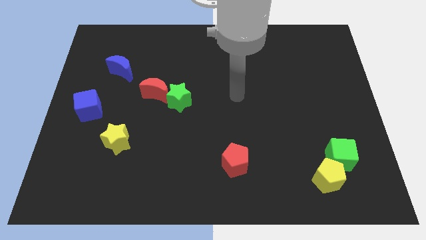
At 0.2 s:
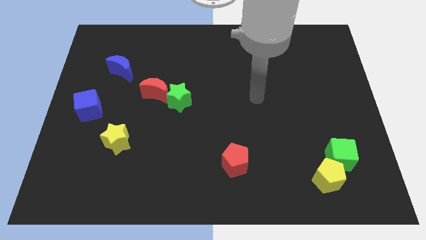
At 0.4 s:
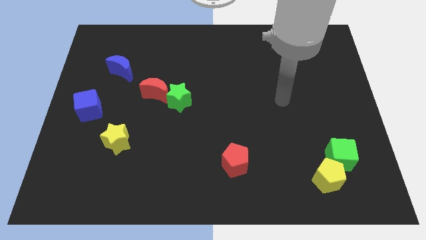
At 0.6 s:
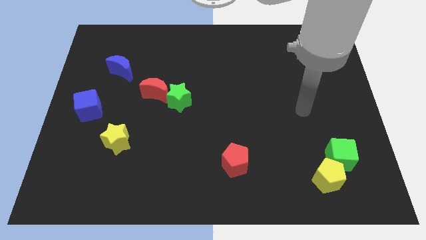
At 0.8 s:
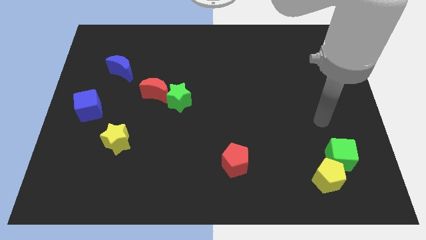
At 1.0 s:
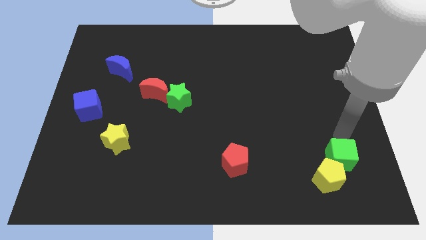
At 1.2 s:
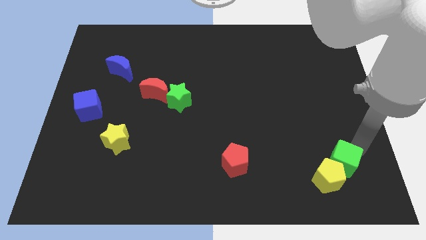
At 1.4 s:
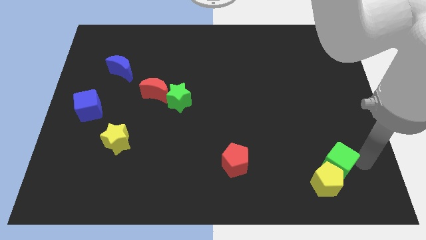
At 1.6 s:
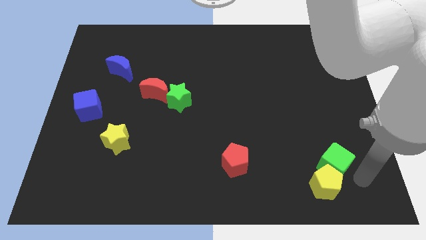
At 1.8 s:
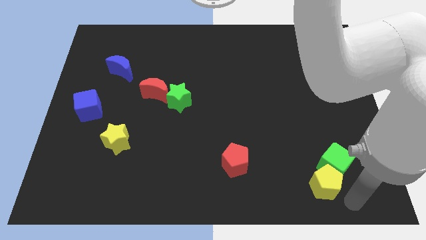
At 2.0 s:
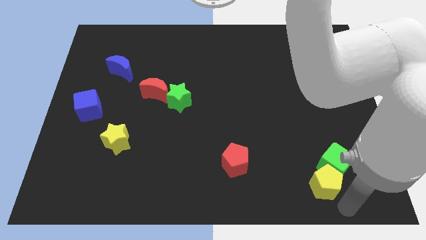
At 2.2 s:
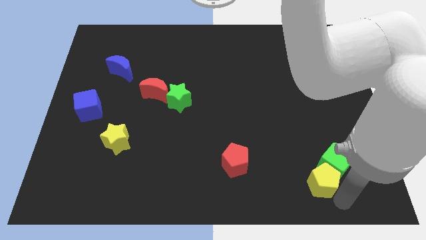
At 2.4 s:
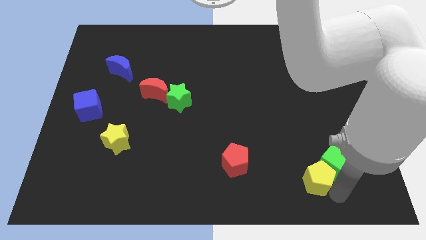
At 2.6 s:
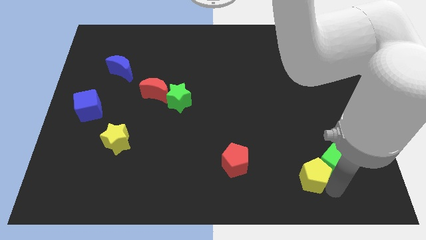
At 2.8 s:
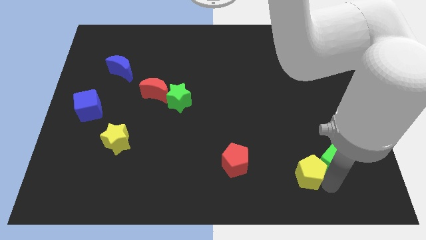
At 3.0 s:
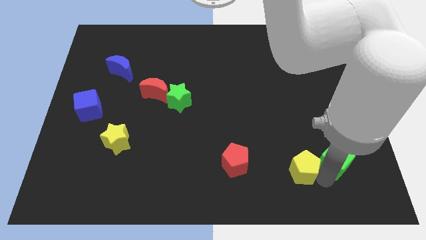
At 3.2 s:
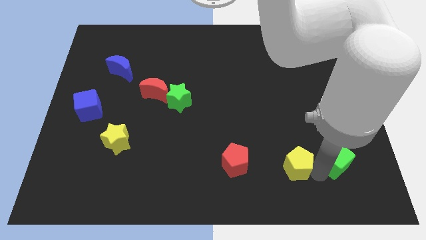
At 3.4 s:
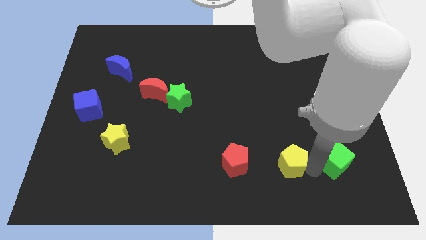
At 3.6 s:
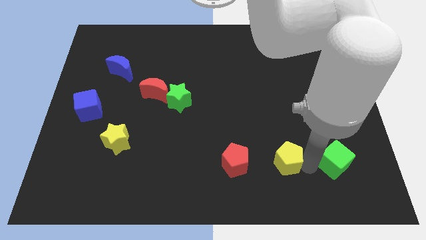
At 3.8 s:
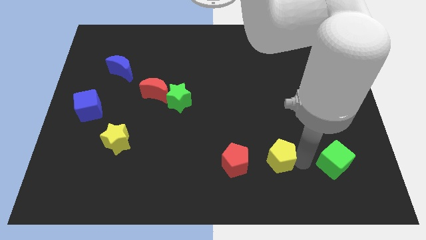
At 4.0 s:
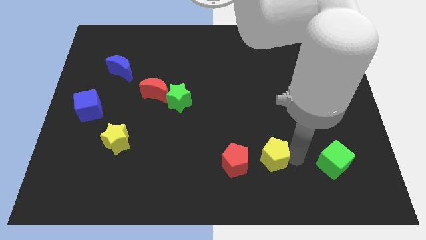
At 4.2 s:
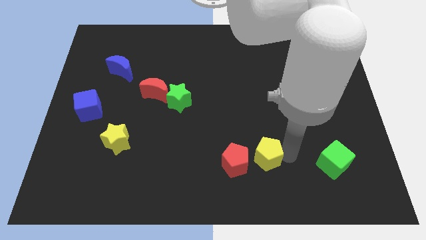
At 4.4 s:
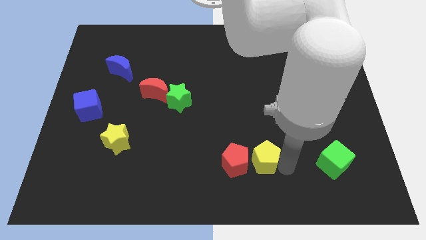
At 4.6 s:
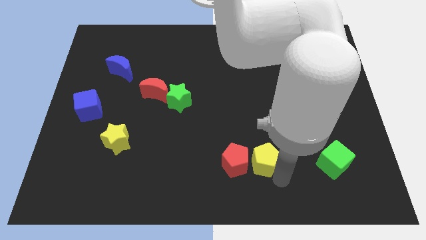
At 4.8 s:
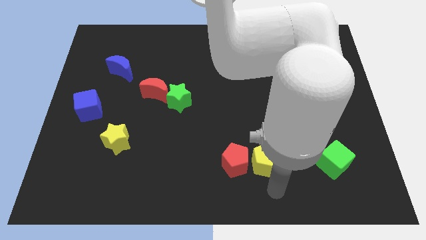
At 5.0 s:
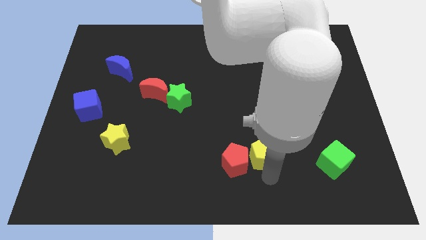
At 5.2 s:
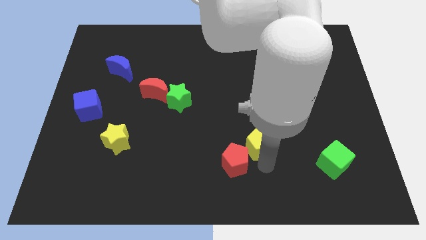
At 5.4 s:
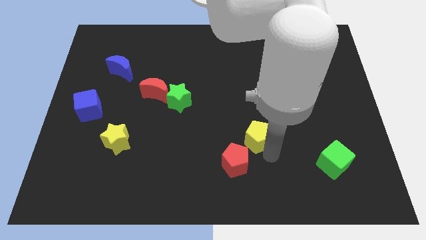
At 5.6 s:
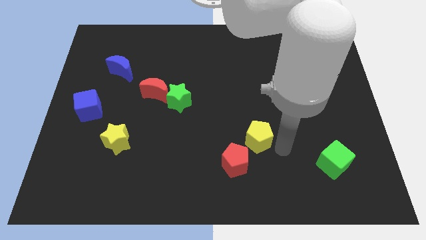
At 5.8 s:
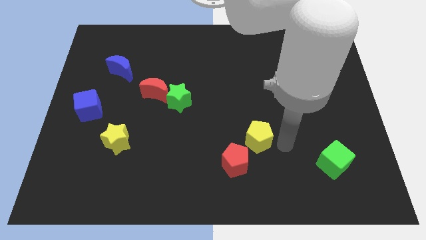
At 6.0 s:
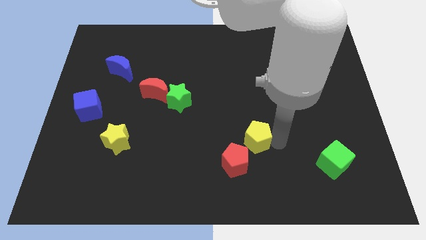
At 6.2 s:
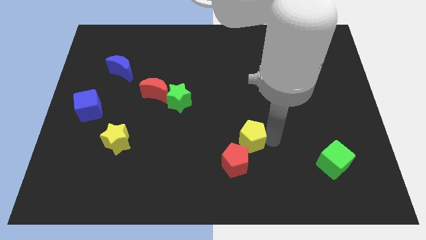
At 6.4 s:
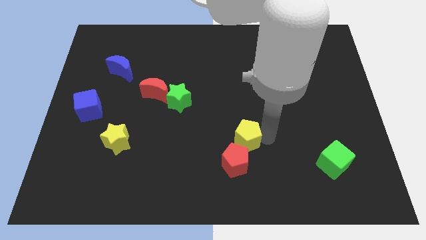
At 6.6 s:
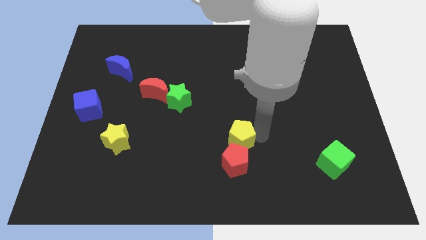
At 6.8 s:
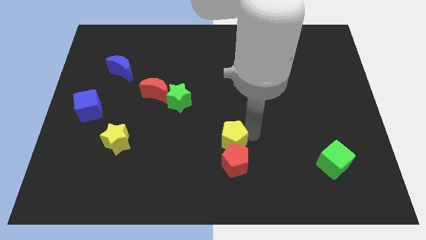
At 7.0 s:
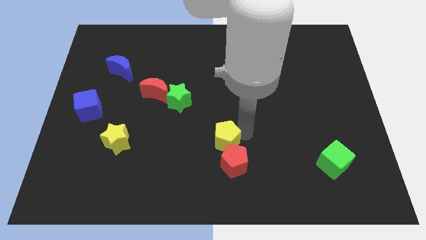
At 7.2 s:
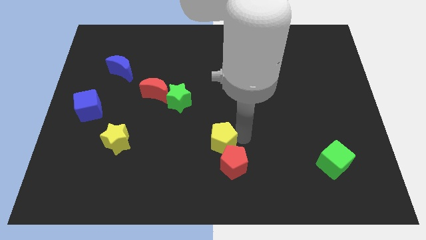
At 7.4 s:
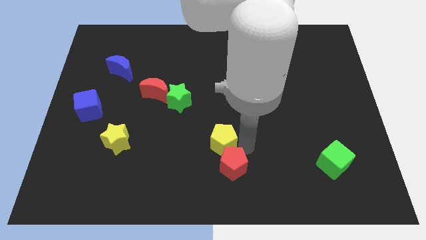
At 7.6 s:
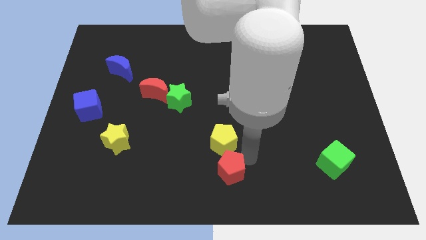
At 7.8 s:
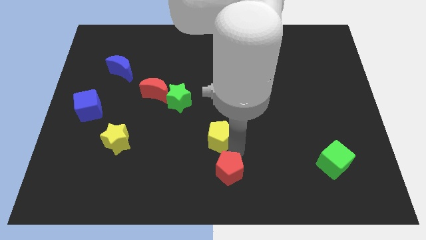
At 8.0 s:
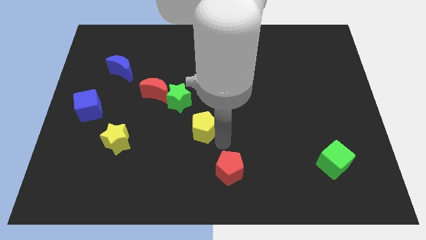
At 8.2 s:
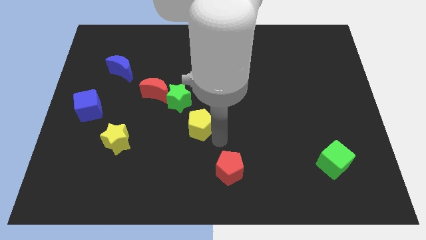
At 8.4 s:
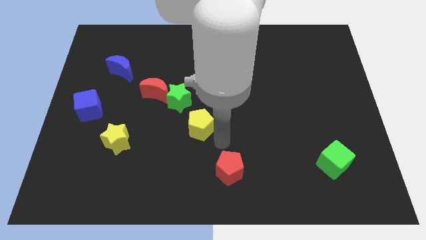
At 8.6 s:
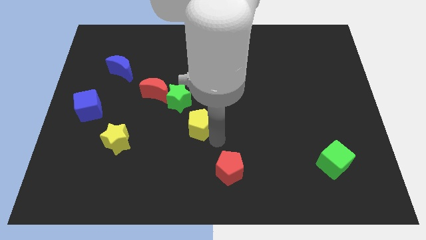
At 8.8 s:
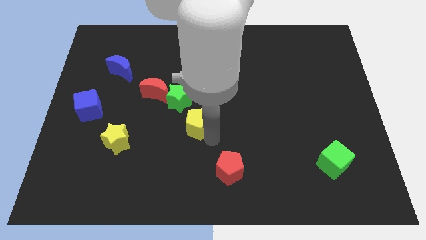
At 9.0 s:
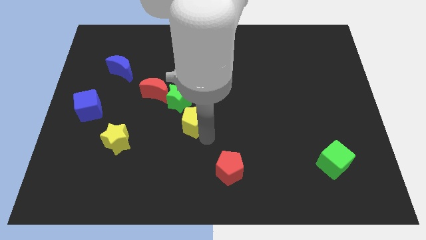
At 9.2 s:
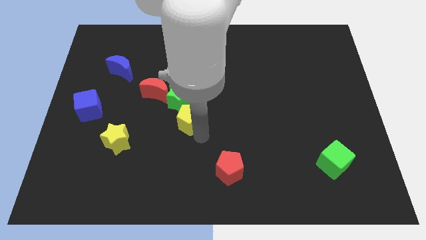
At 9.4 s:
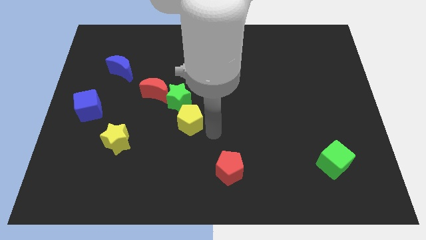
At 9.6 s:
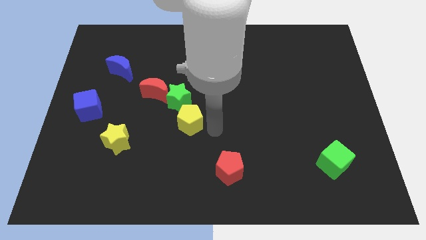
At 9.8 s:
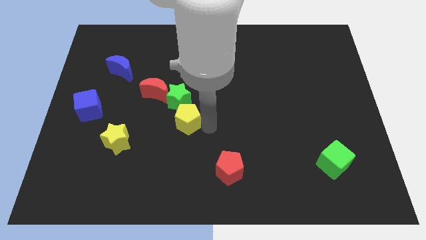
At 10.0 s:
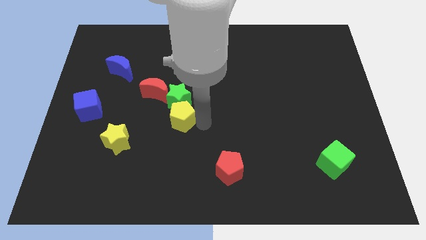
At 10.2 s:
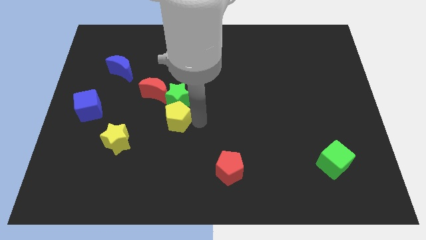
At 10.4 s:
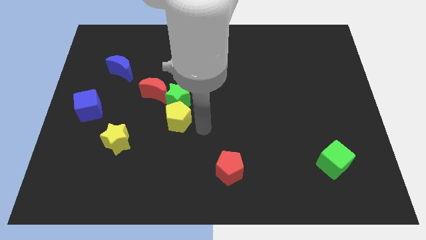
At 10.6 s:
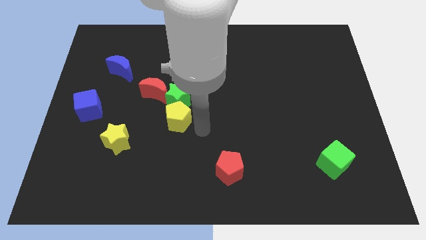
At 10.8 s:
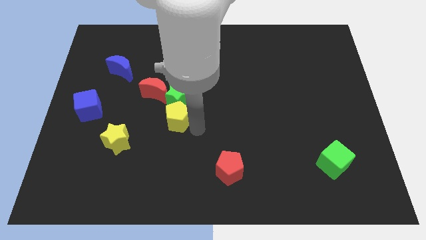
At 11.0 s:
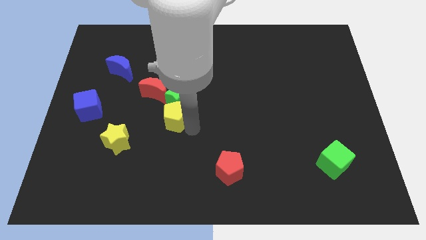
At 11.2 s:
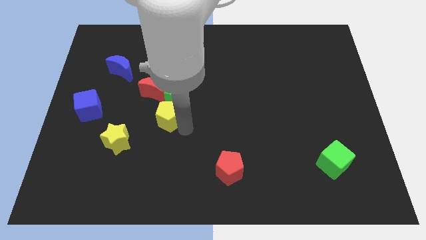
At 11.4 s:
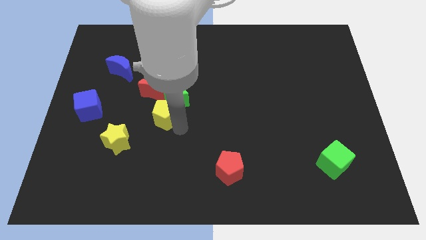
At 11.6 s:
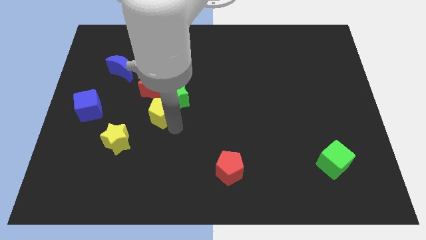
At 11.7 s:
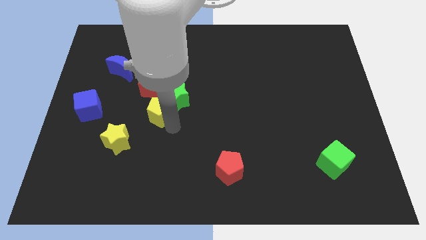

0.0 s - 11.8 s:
move the yellow pentagon left of the green star

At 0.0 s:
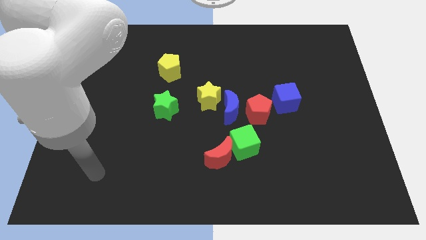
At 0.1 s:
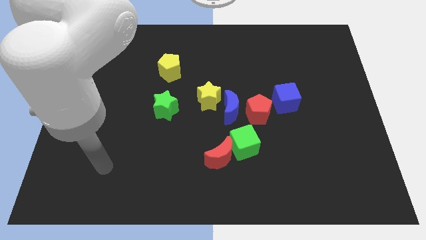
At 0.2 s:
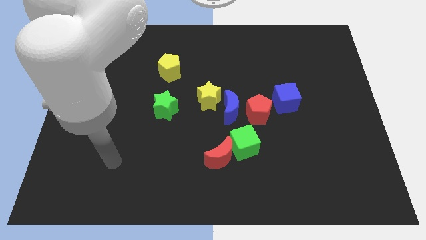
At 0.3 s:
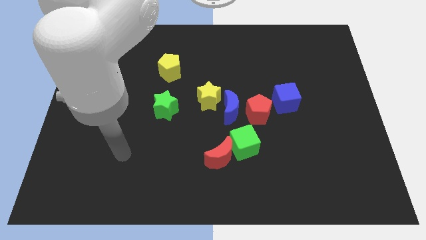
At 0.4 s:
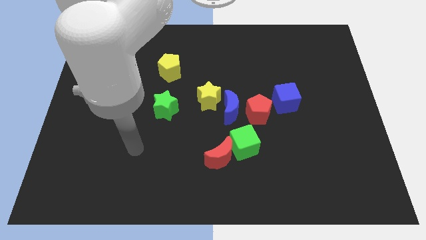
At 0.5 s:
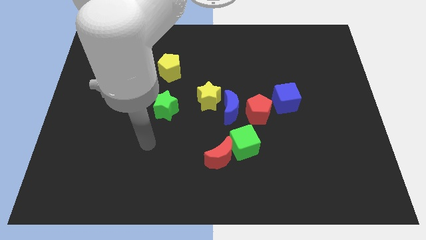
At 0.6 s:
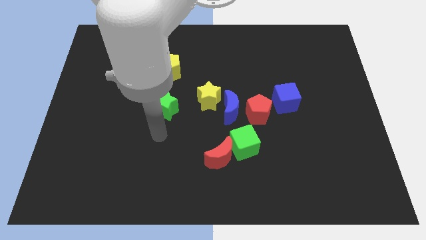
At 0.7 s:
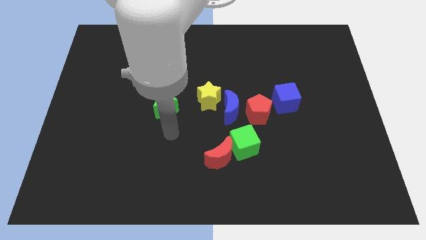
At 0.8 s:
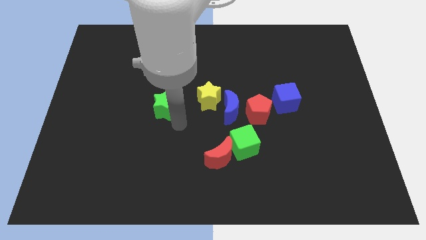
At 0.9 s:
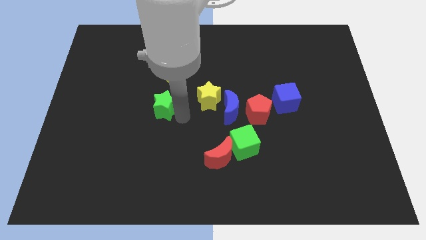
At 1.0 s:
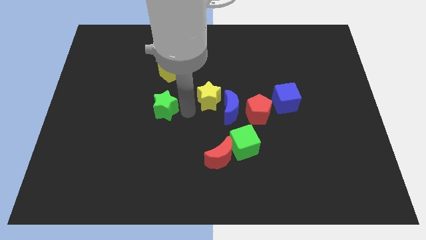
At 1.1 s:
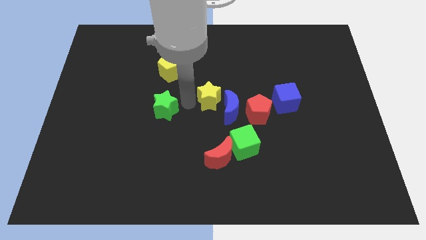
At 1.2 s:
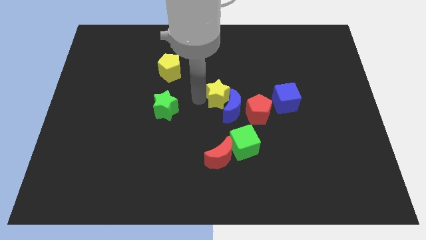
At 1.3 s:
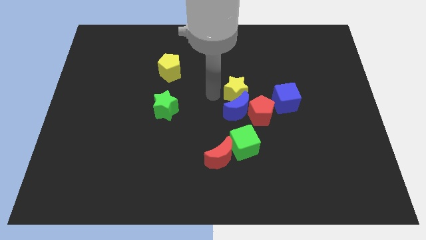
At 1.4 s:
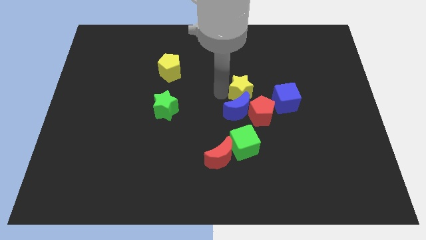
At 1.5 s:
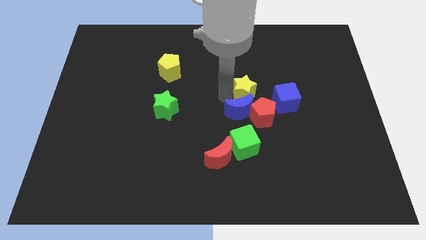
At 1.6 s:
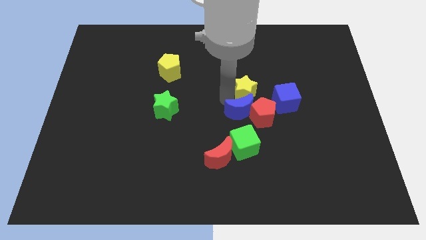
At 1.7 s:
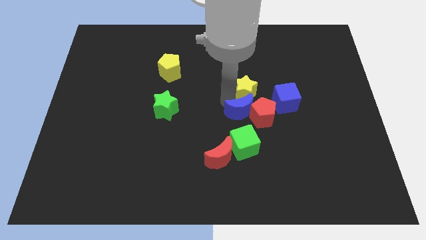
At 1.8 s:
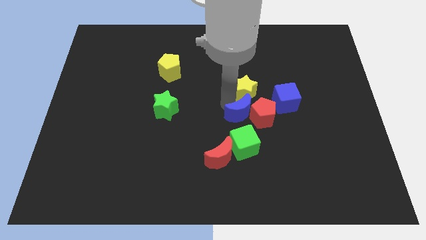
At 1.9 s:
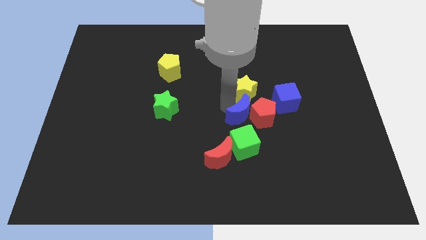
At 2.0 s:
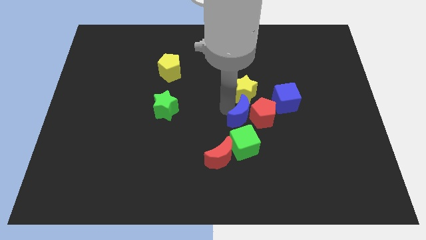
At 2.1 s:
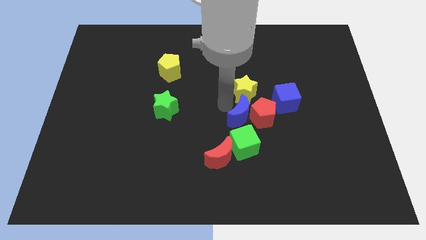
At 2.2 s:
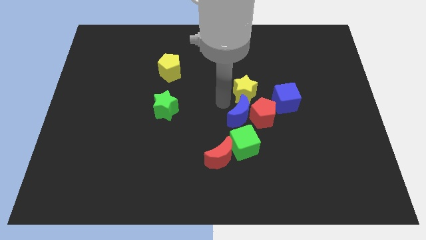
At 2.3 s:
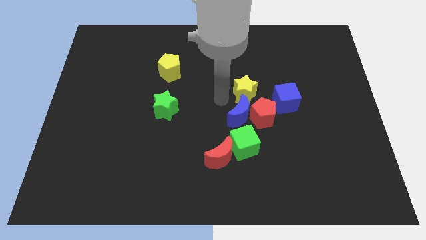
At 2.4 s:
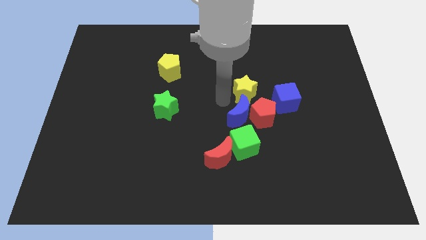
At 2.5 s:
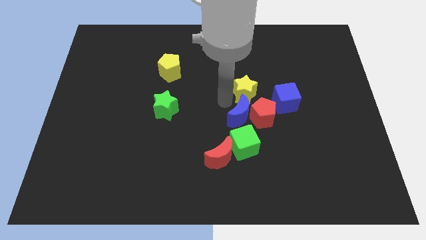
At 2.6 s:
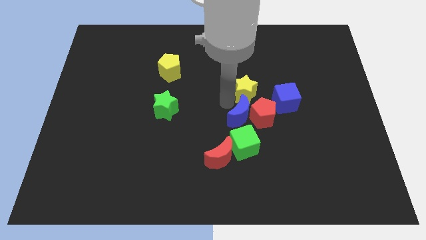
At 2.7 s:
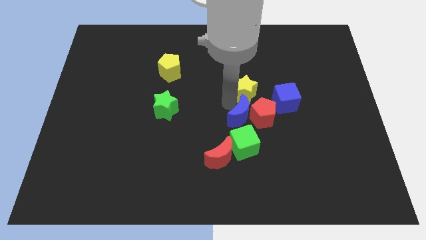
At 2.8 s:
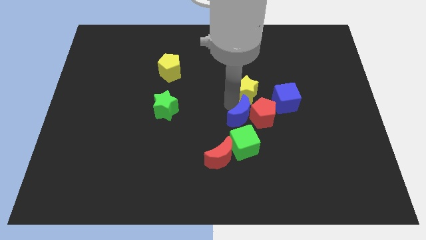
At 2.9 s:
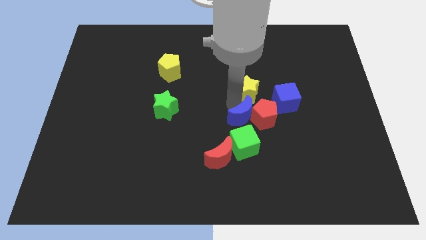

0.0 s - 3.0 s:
put the blue moon to the bottom left of the blue cube
